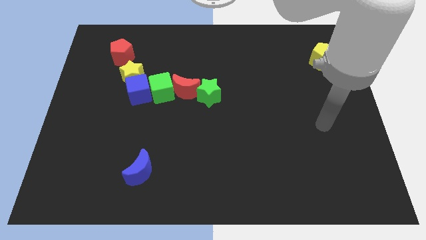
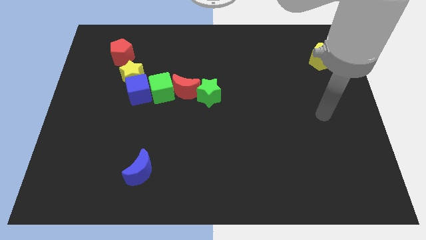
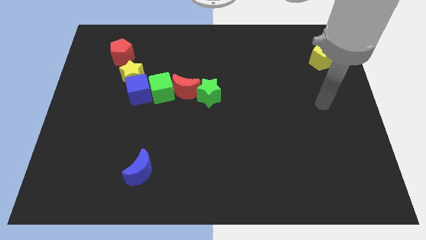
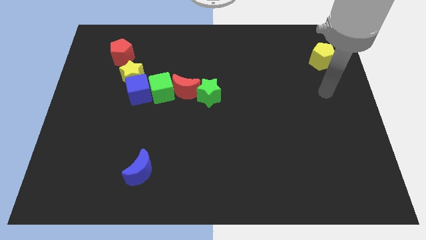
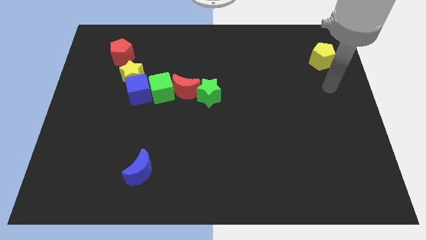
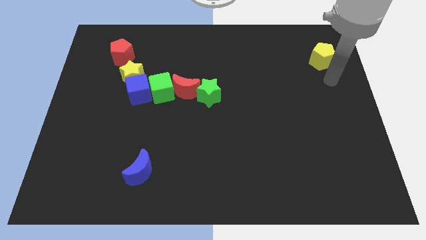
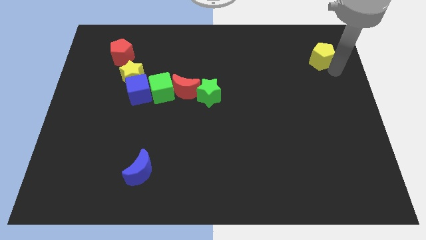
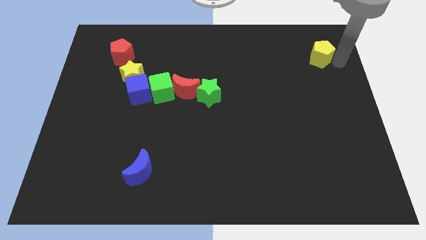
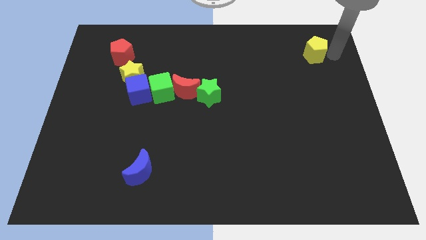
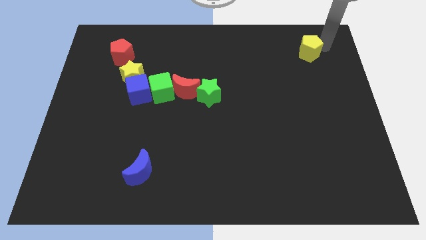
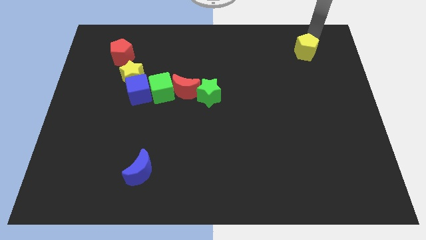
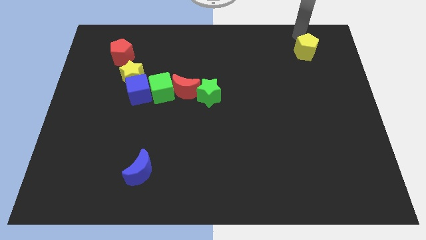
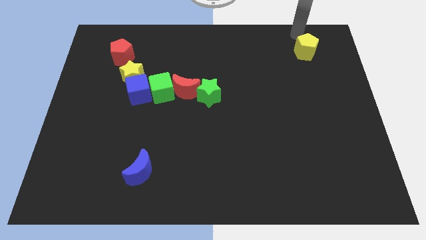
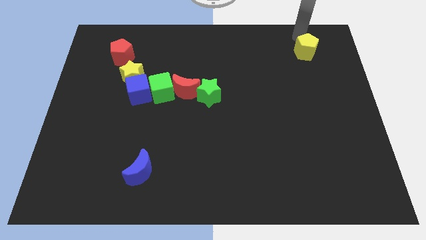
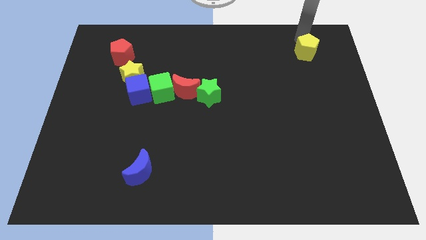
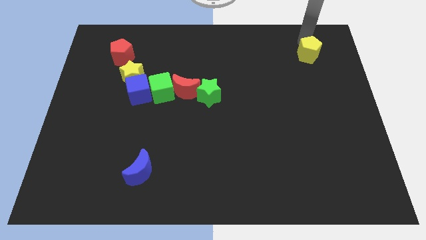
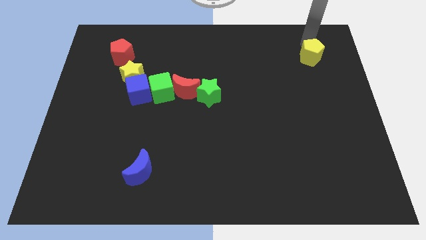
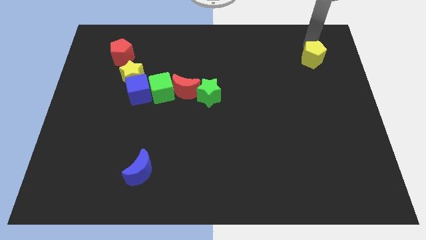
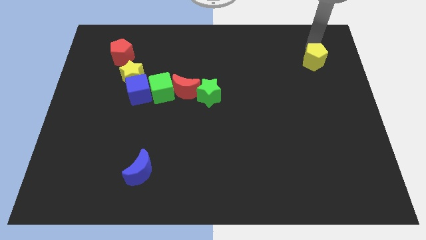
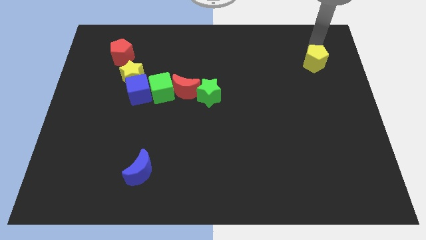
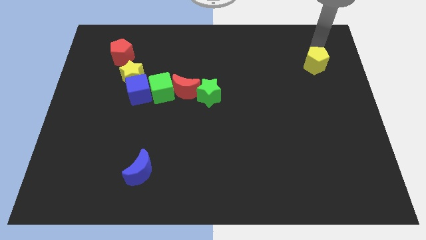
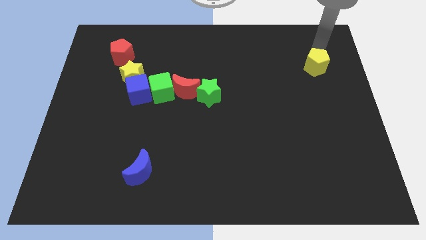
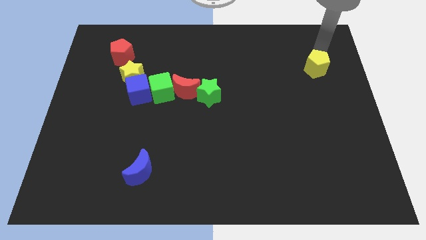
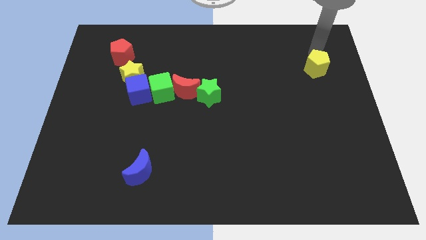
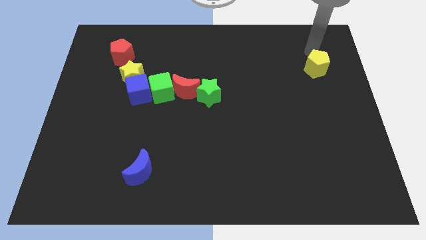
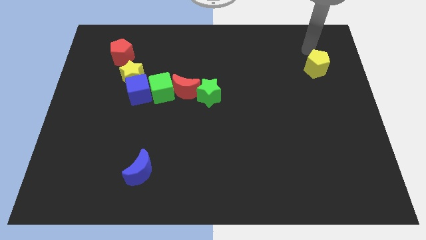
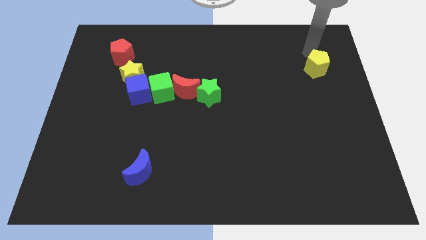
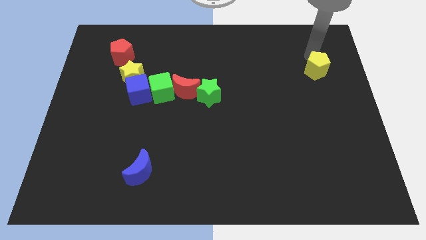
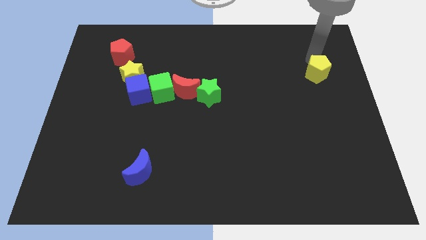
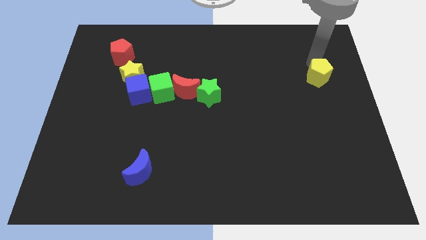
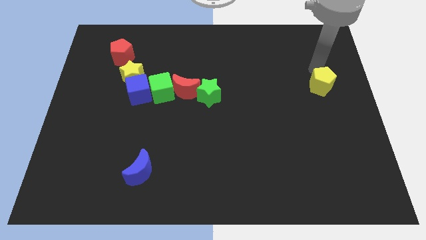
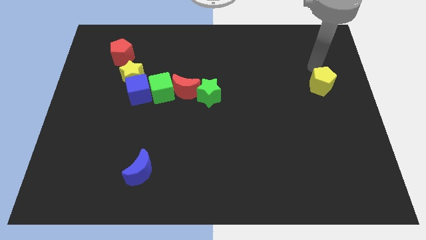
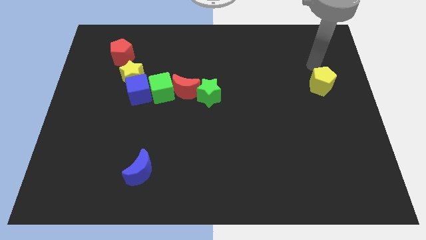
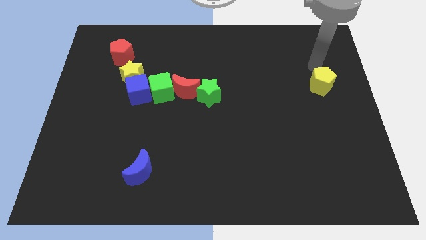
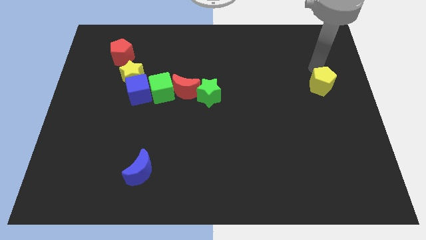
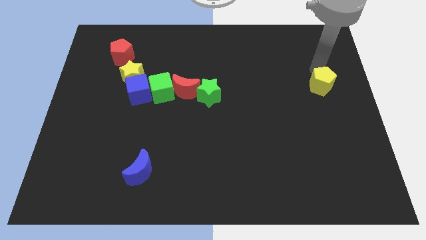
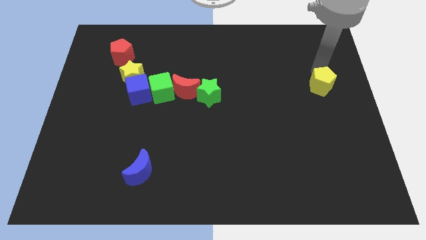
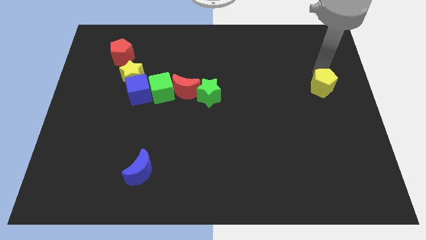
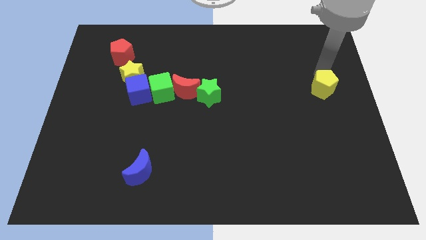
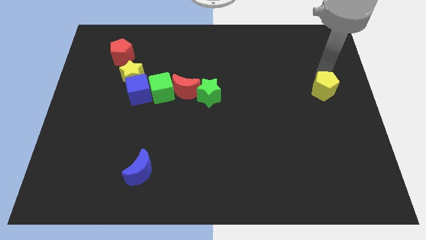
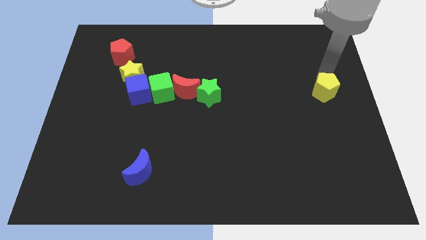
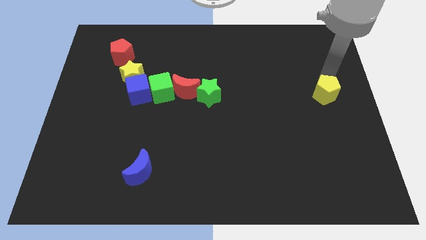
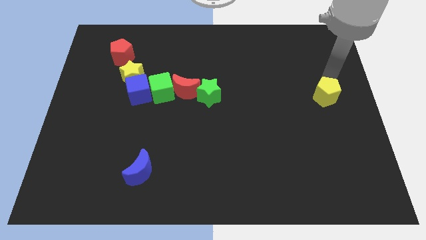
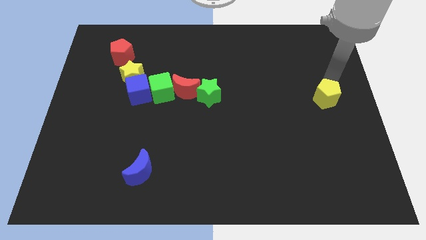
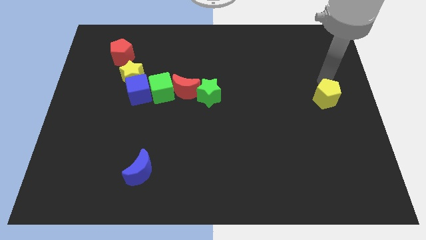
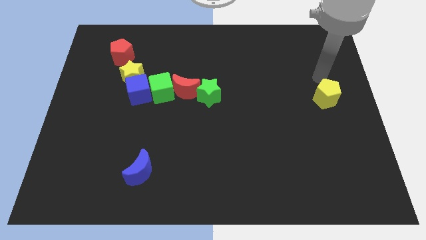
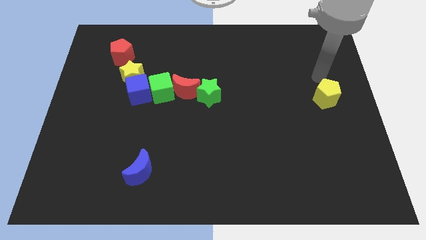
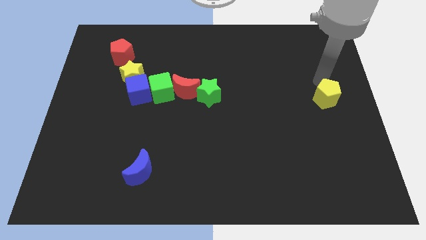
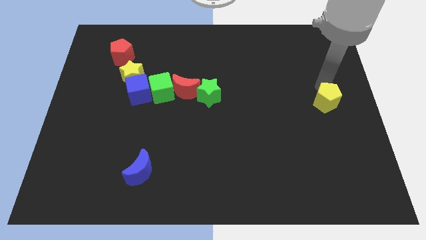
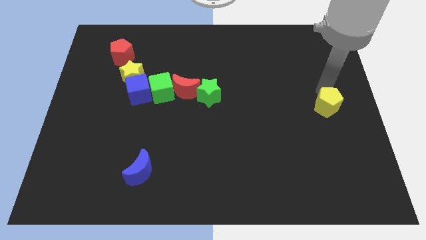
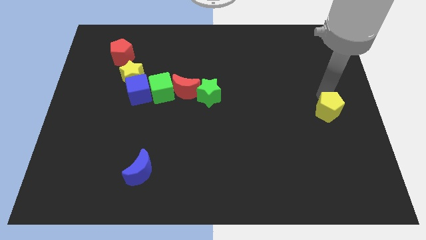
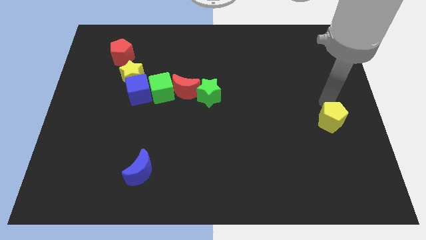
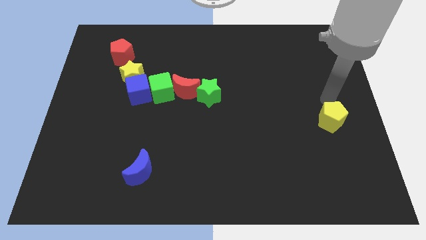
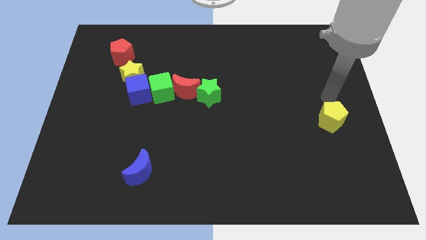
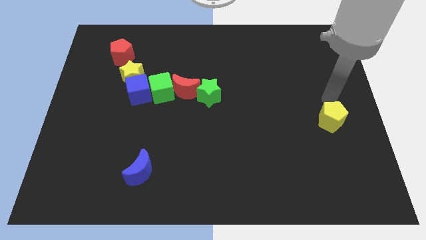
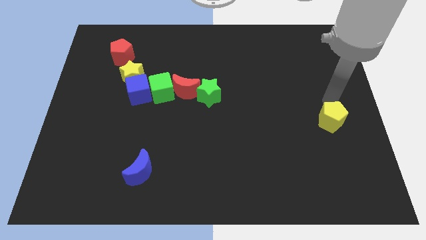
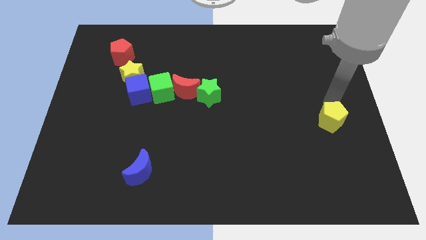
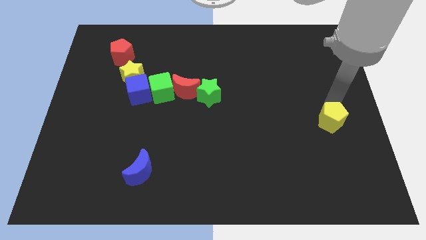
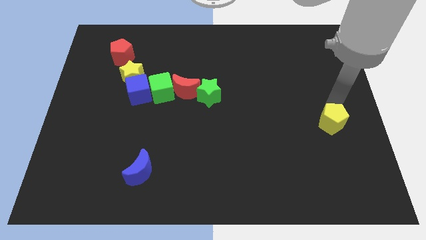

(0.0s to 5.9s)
move the yellow pentagon down

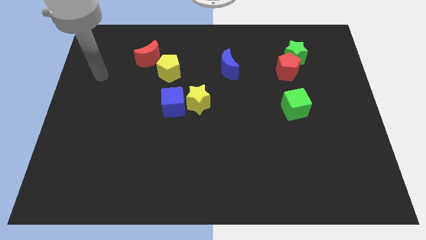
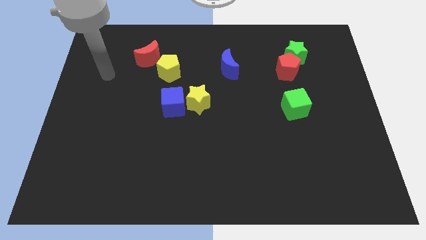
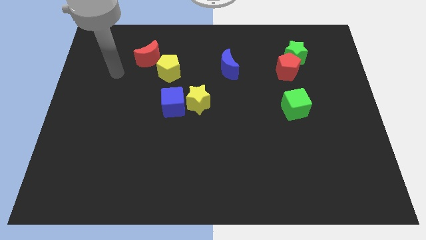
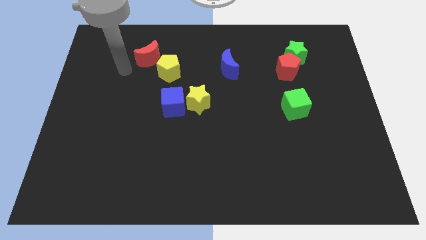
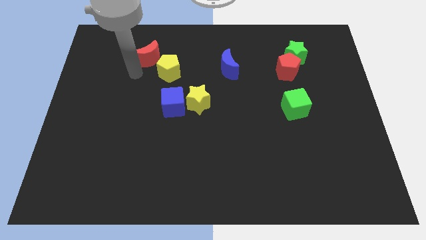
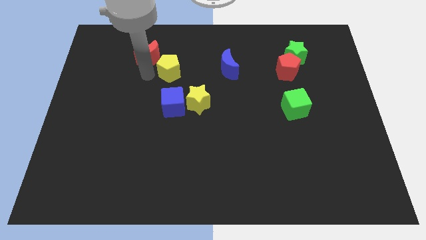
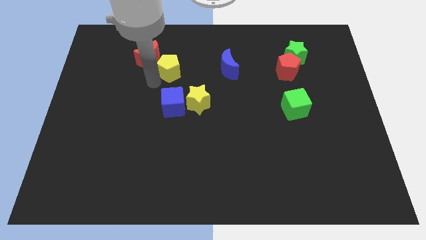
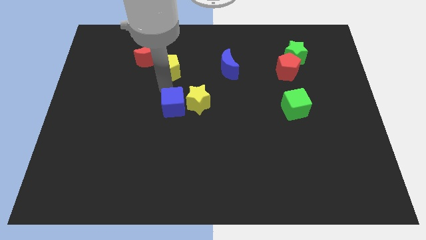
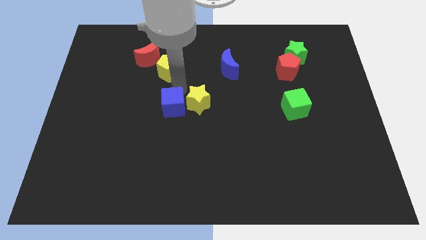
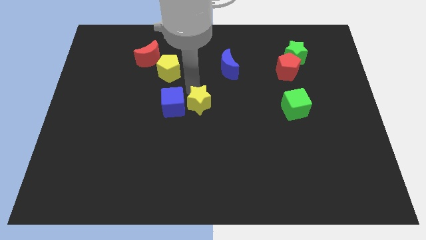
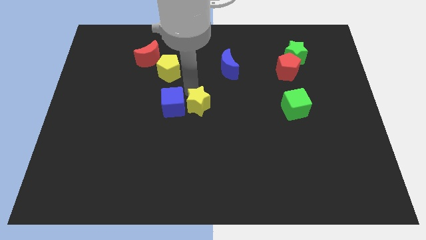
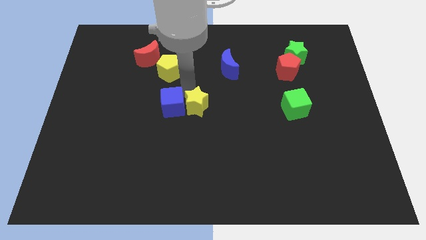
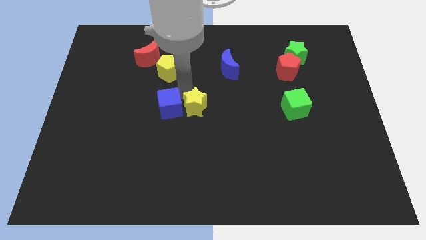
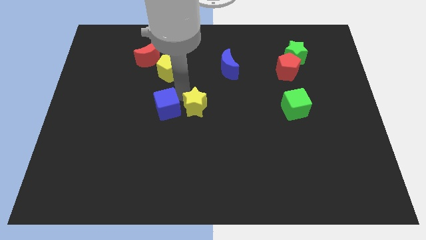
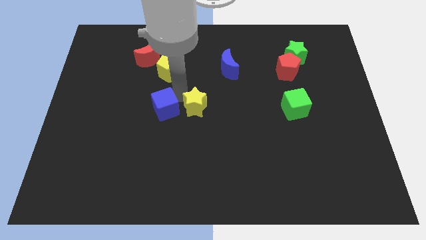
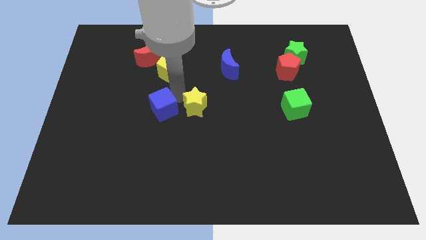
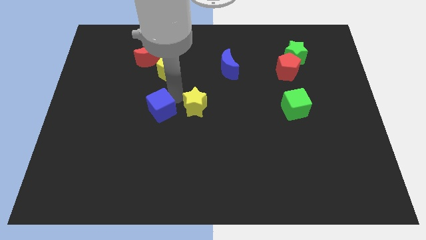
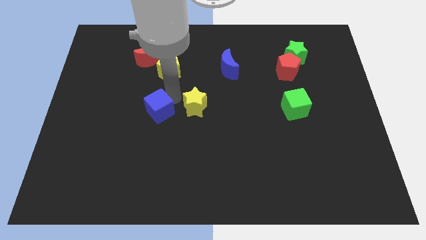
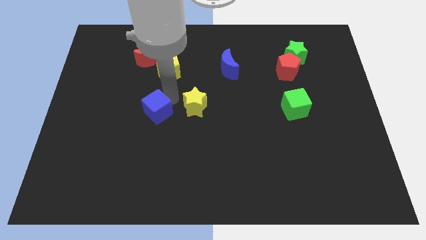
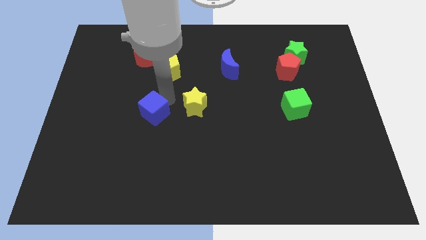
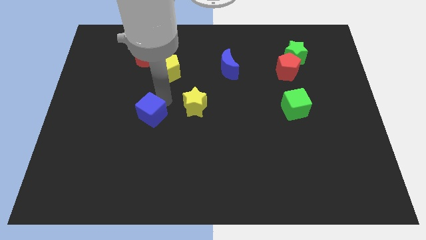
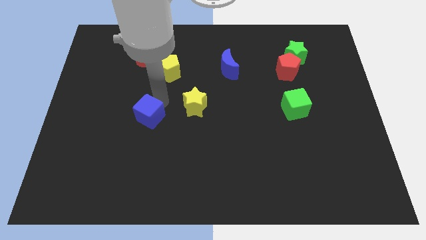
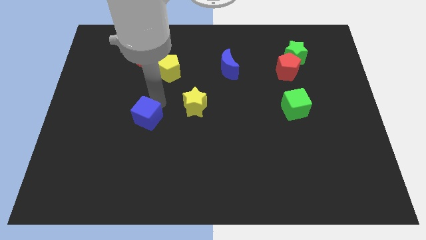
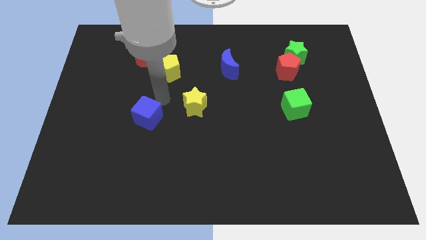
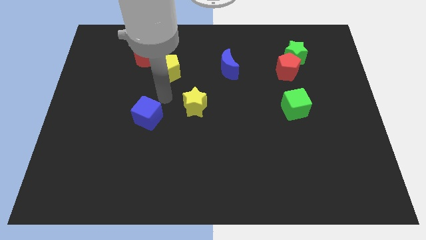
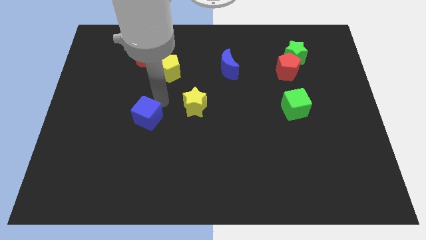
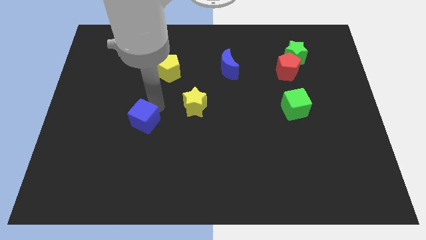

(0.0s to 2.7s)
push the blue cube diagonally down and left somewhat
